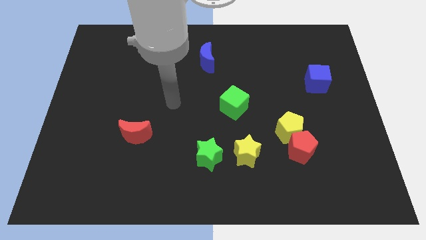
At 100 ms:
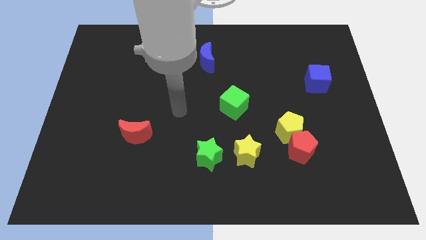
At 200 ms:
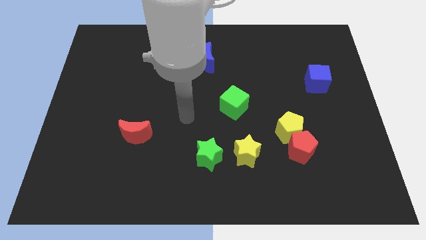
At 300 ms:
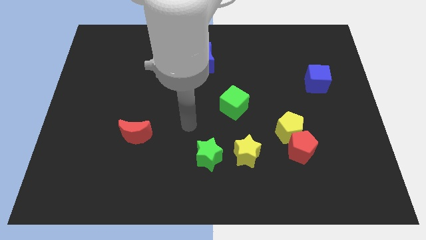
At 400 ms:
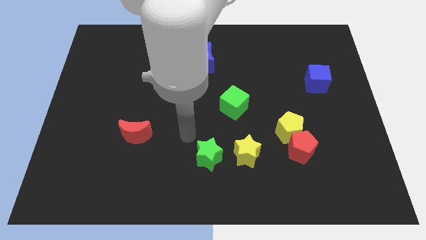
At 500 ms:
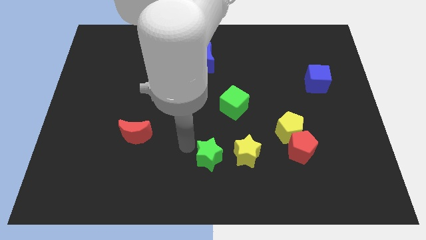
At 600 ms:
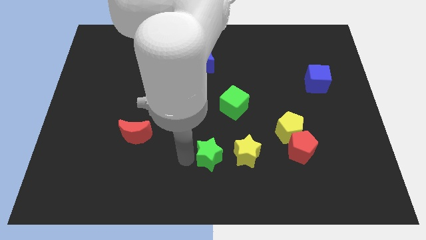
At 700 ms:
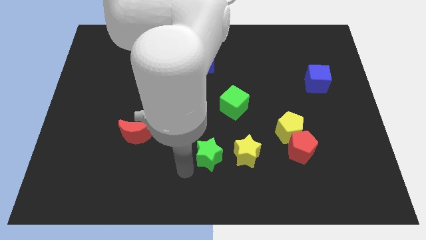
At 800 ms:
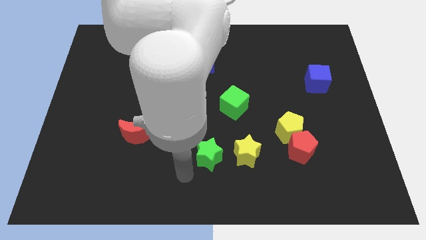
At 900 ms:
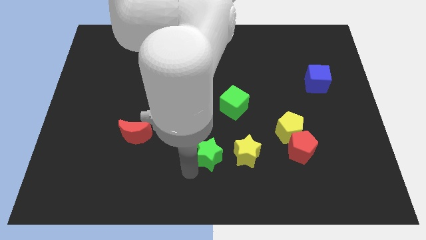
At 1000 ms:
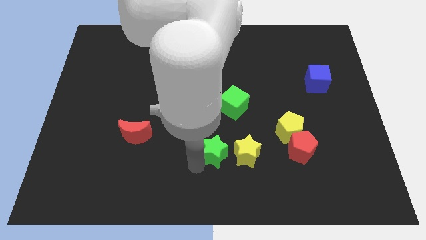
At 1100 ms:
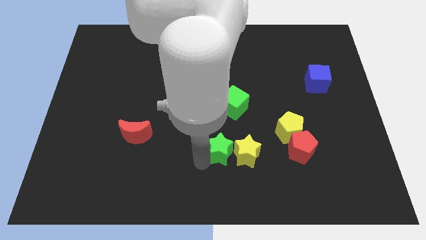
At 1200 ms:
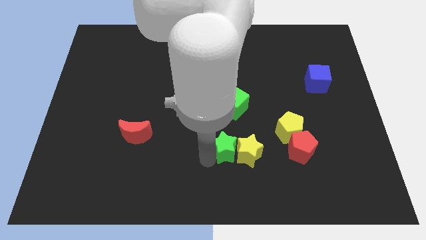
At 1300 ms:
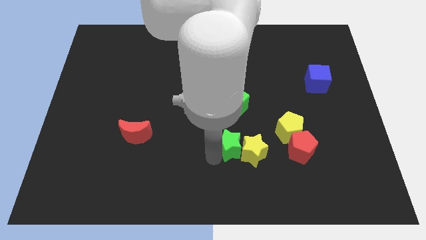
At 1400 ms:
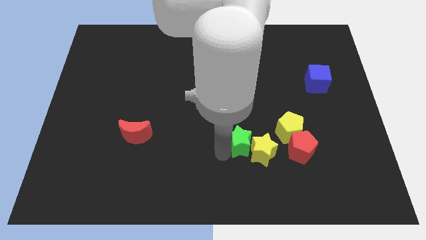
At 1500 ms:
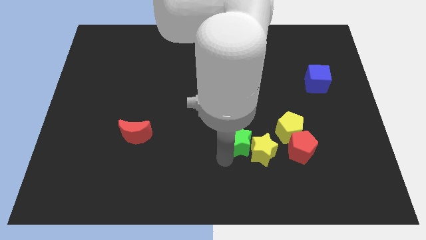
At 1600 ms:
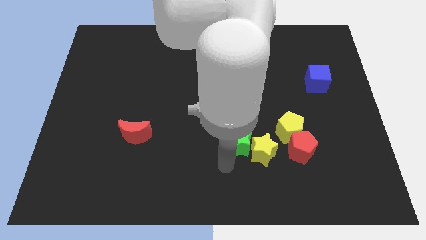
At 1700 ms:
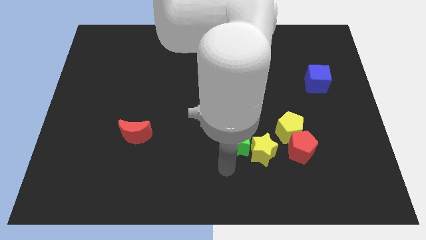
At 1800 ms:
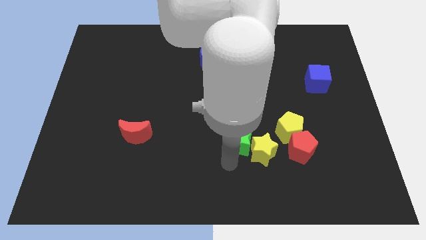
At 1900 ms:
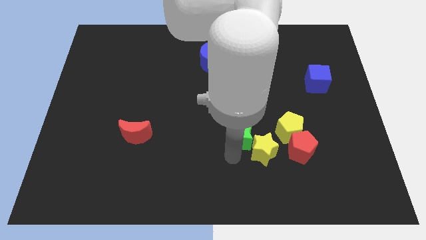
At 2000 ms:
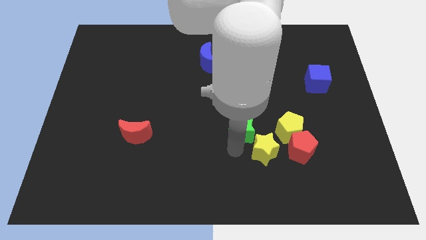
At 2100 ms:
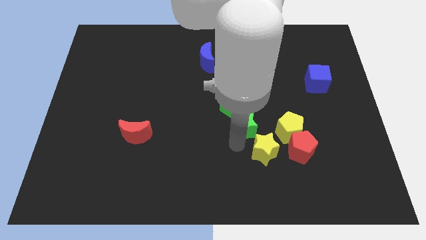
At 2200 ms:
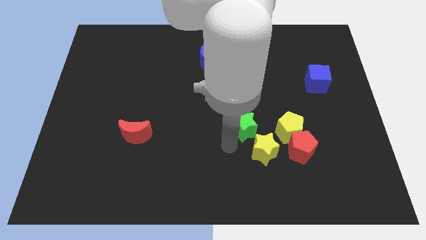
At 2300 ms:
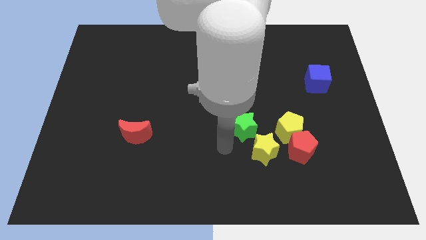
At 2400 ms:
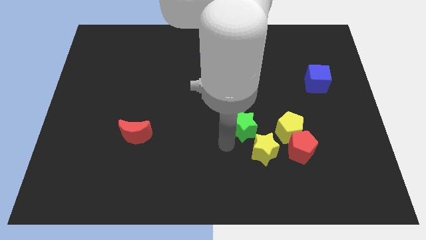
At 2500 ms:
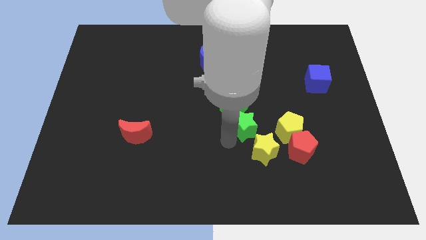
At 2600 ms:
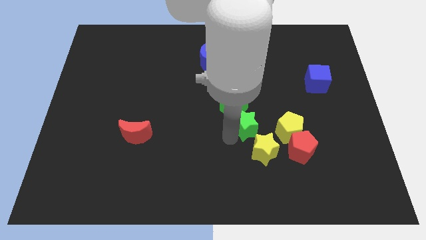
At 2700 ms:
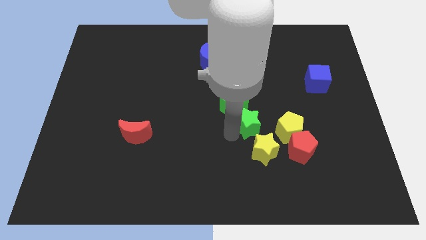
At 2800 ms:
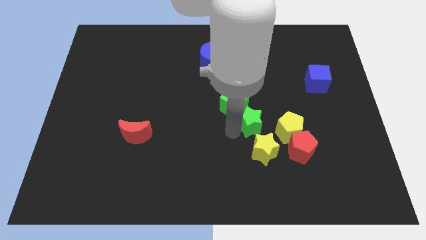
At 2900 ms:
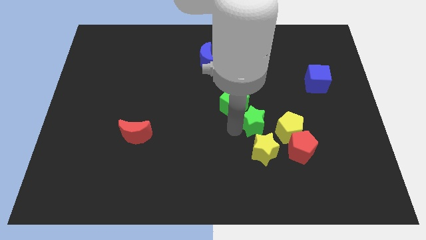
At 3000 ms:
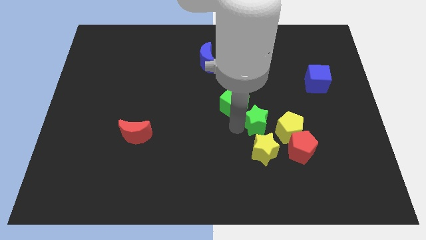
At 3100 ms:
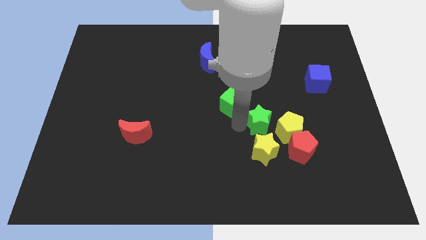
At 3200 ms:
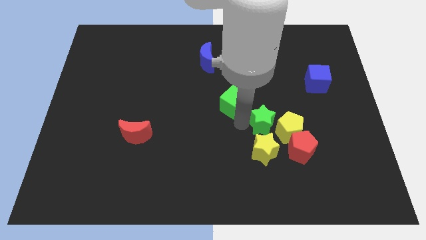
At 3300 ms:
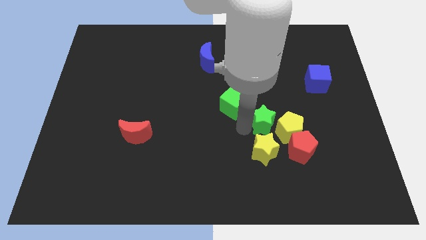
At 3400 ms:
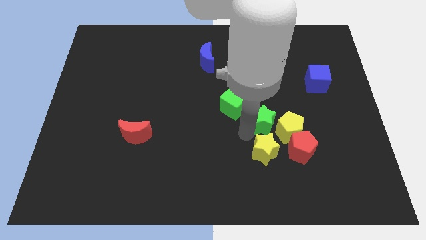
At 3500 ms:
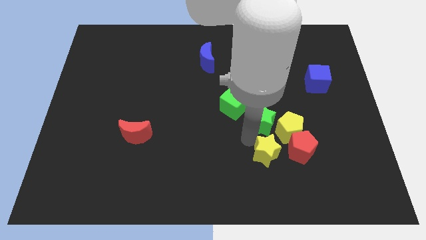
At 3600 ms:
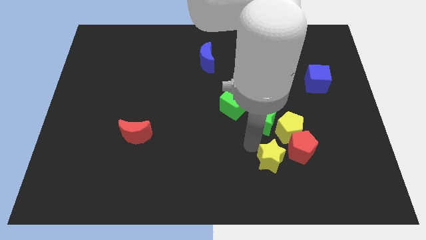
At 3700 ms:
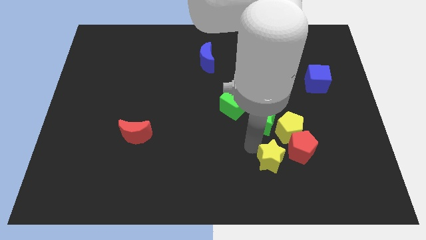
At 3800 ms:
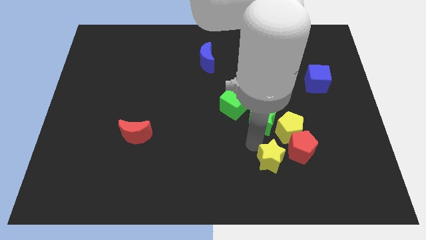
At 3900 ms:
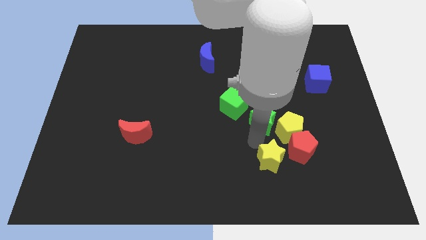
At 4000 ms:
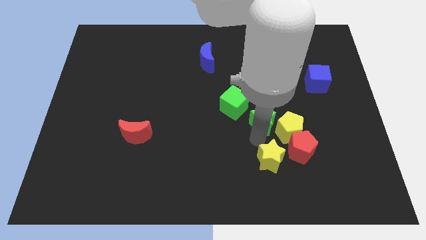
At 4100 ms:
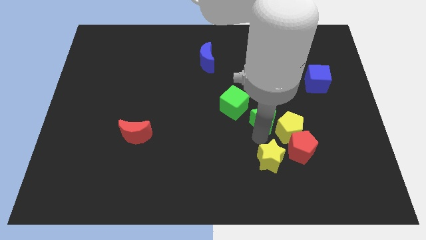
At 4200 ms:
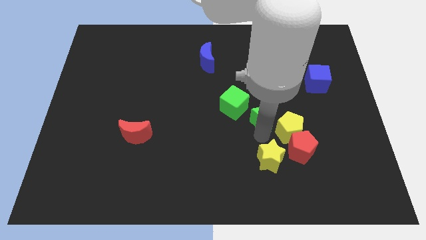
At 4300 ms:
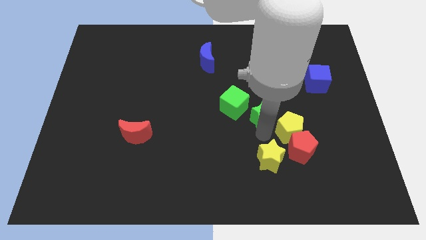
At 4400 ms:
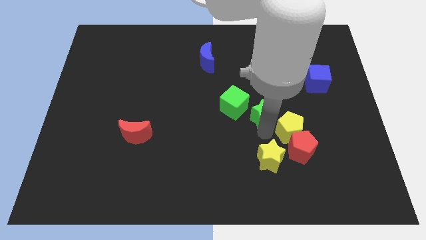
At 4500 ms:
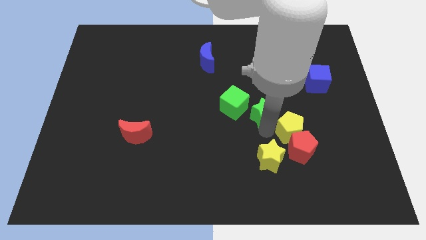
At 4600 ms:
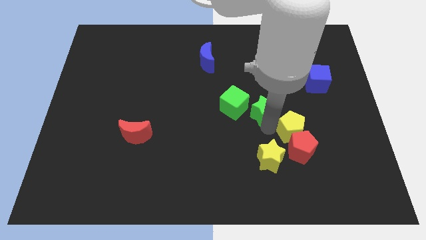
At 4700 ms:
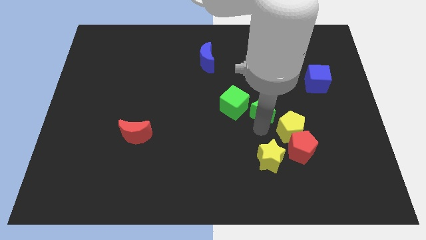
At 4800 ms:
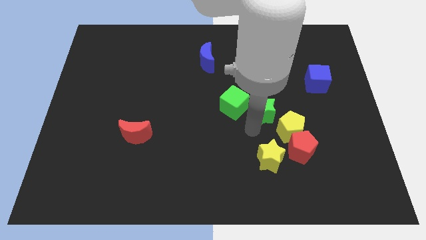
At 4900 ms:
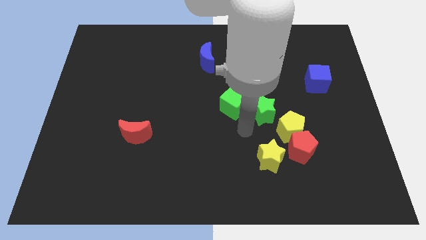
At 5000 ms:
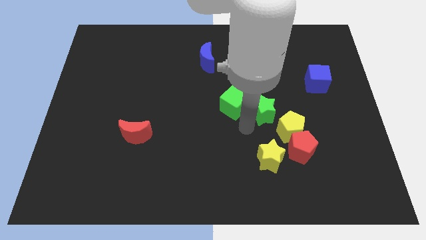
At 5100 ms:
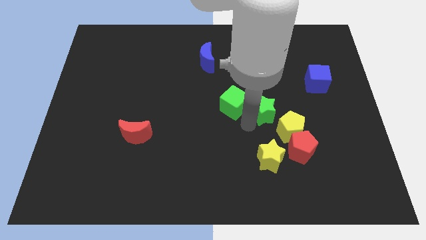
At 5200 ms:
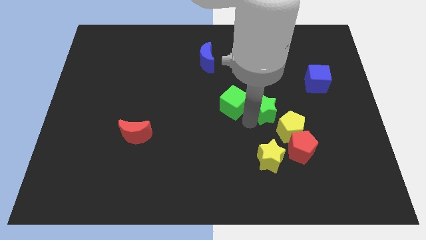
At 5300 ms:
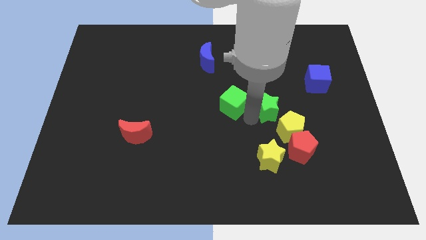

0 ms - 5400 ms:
slide the green star above the yellow pentagon

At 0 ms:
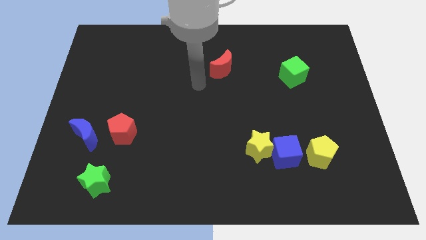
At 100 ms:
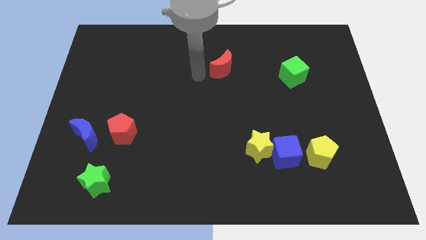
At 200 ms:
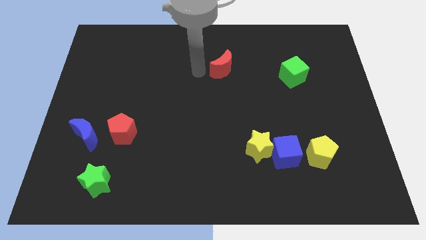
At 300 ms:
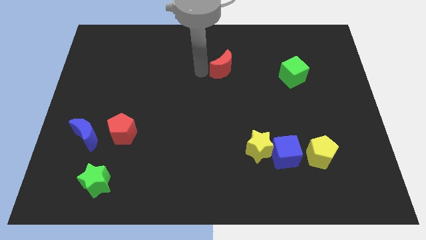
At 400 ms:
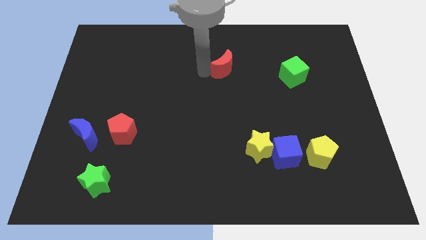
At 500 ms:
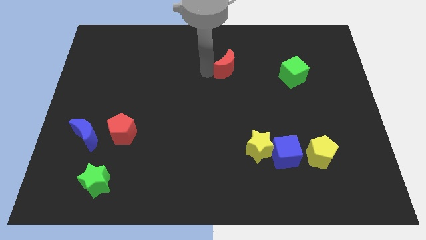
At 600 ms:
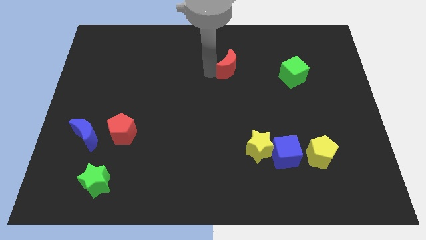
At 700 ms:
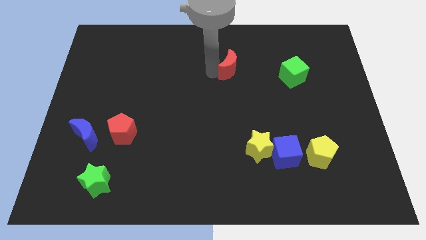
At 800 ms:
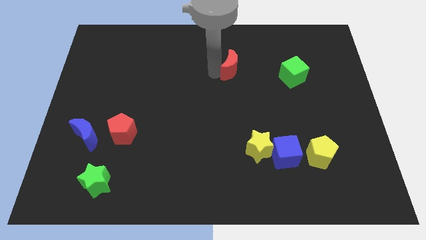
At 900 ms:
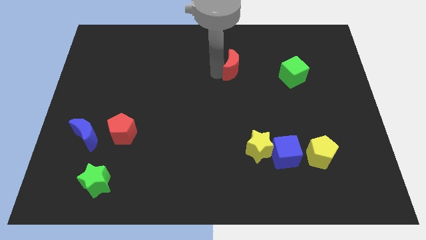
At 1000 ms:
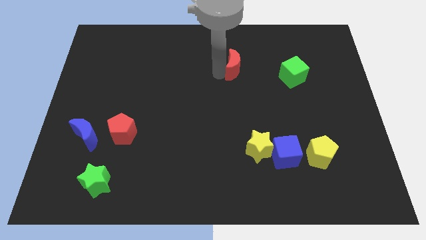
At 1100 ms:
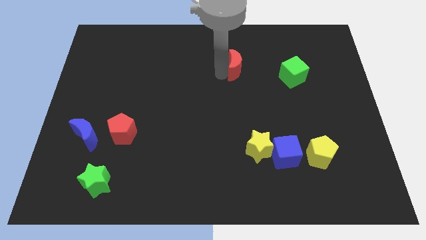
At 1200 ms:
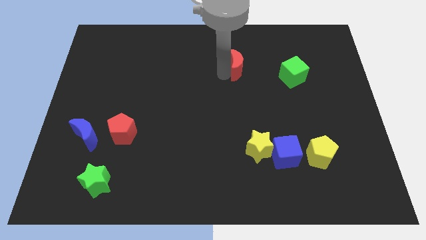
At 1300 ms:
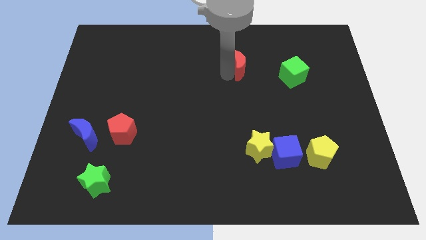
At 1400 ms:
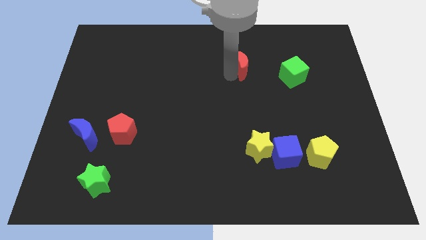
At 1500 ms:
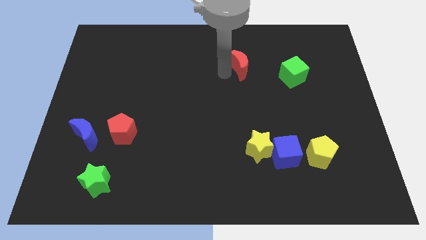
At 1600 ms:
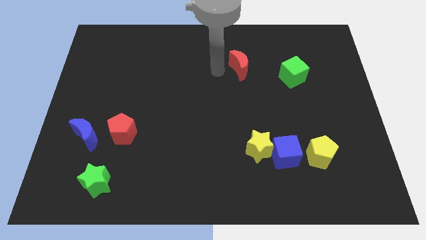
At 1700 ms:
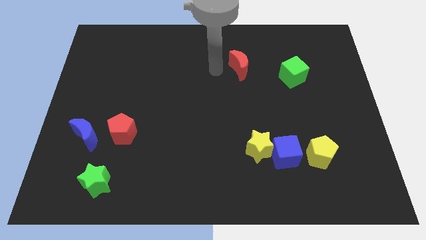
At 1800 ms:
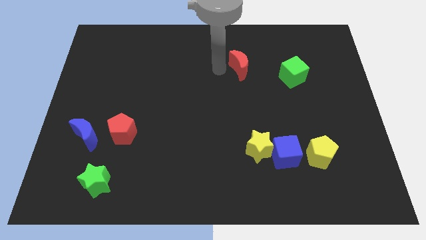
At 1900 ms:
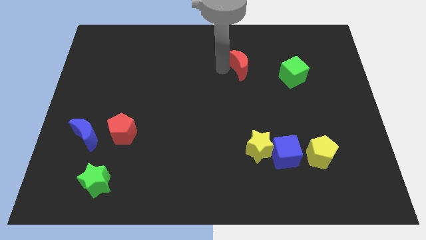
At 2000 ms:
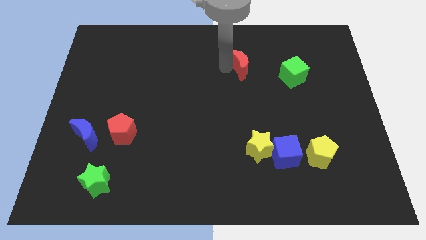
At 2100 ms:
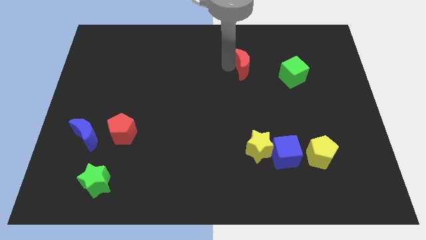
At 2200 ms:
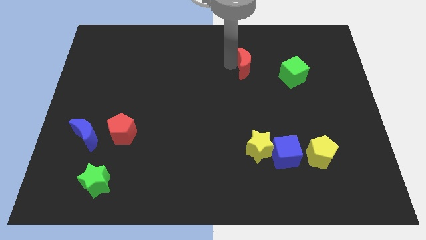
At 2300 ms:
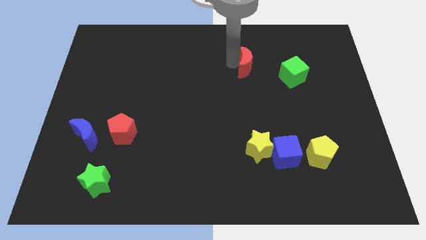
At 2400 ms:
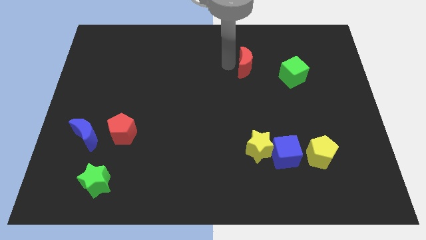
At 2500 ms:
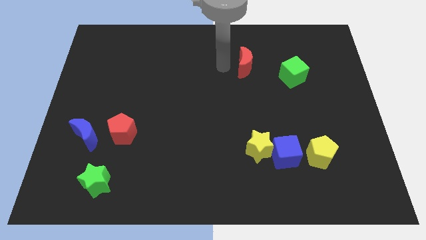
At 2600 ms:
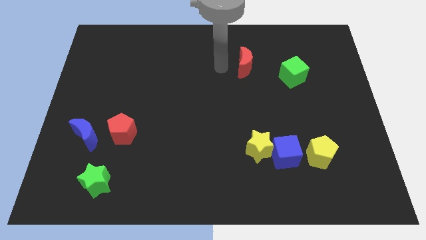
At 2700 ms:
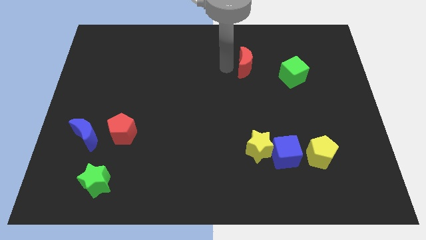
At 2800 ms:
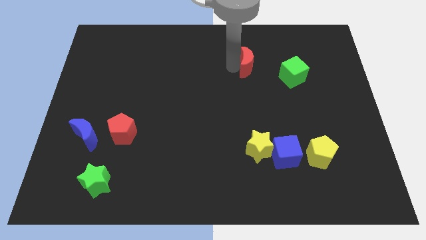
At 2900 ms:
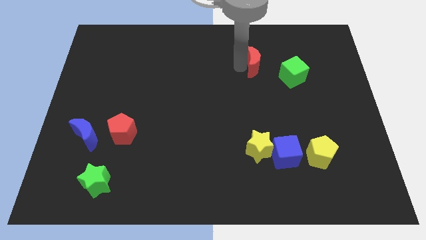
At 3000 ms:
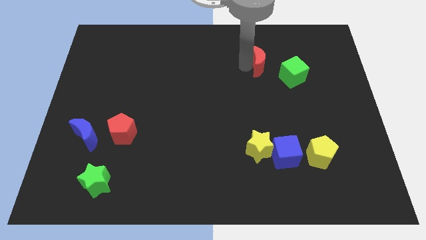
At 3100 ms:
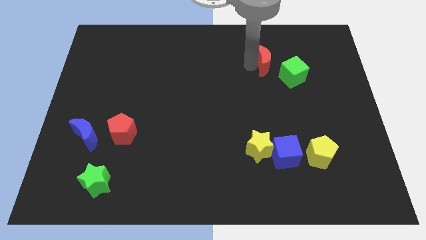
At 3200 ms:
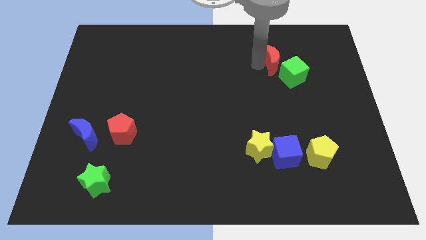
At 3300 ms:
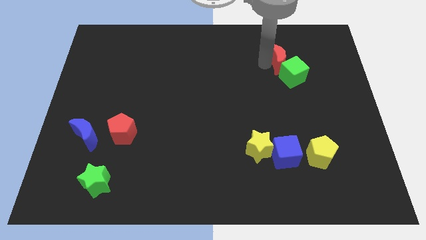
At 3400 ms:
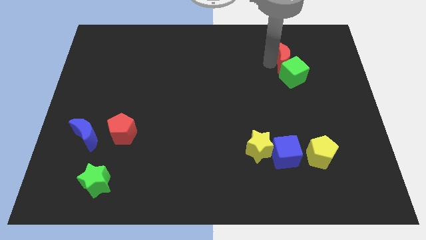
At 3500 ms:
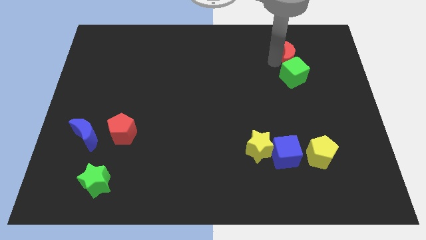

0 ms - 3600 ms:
slide the red moon to the top right side of the green cube
